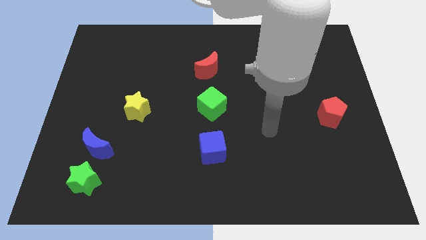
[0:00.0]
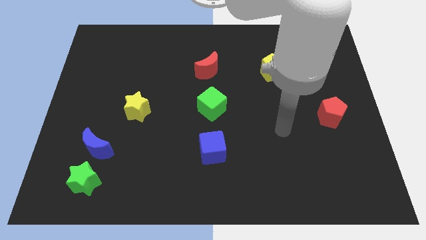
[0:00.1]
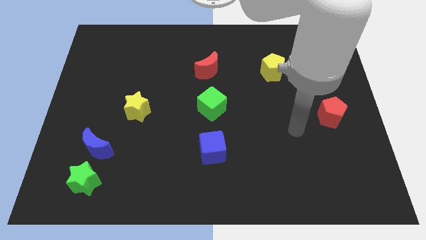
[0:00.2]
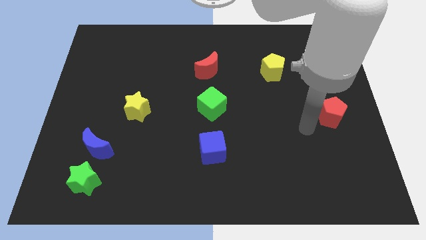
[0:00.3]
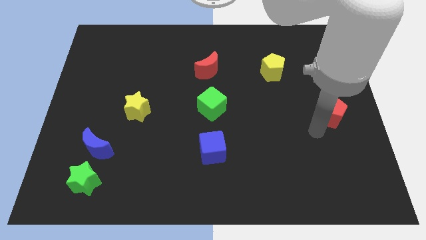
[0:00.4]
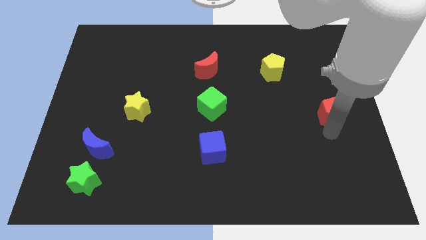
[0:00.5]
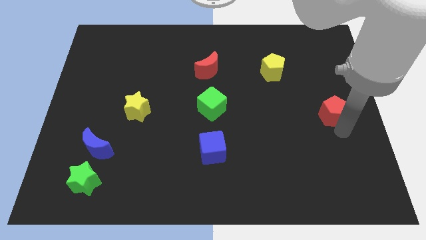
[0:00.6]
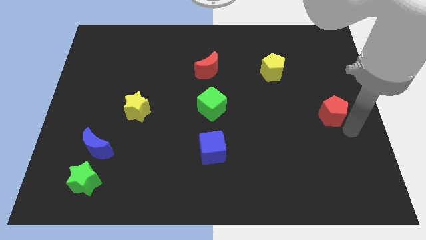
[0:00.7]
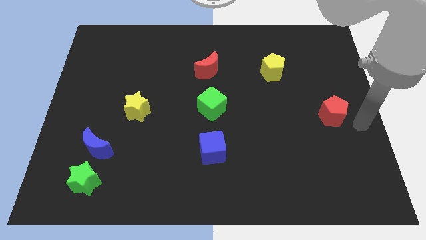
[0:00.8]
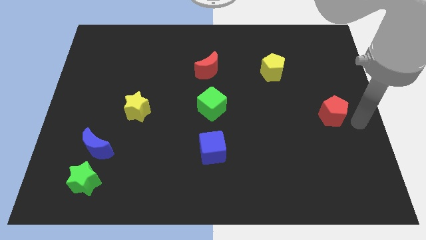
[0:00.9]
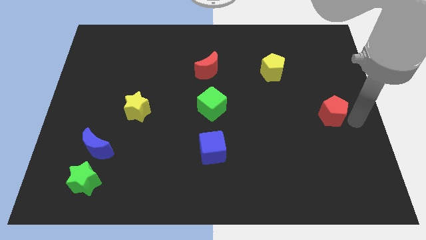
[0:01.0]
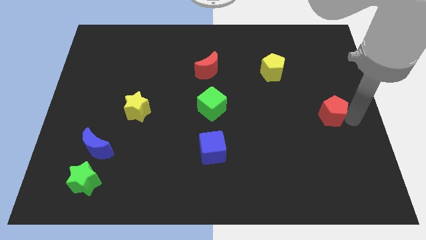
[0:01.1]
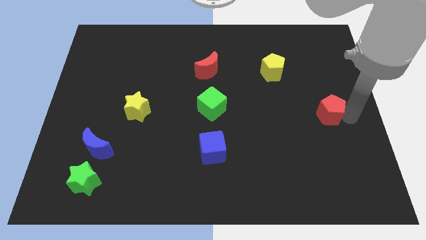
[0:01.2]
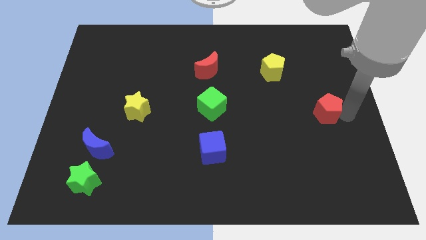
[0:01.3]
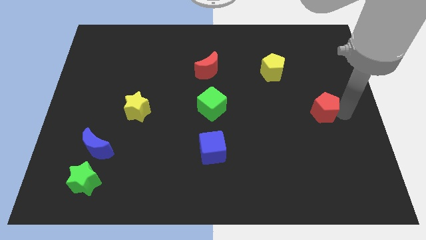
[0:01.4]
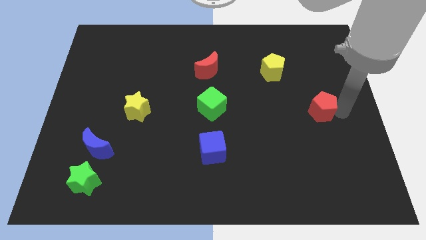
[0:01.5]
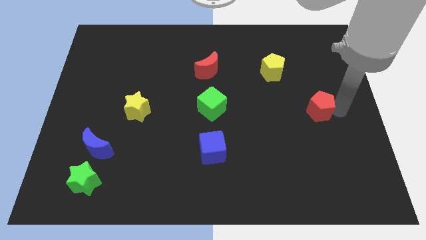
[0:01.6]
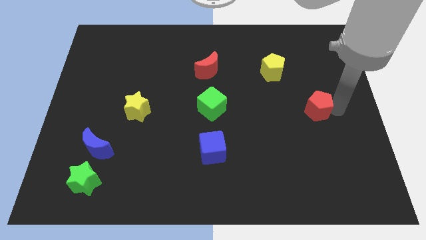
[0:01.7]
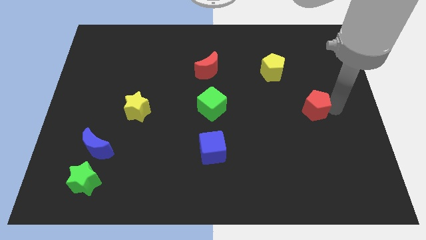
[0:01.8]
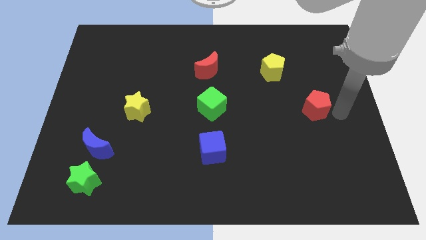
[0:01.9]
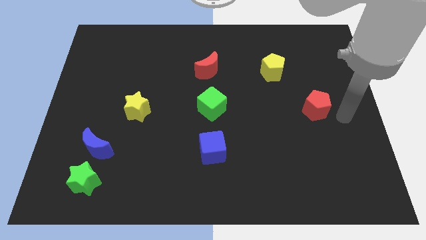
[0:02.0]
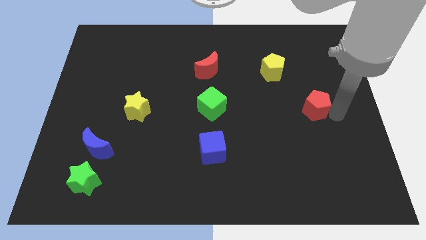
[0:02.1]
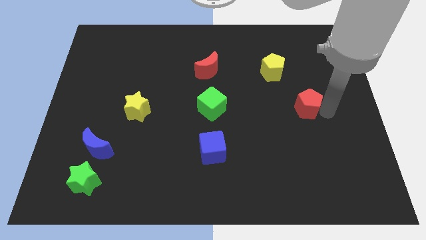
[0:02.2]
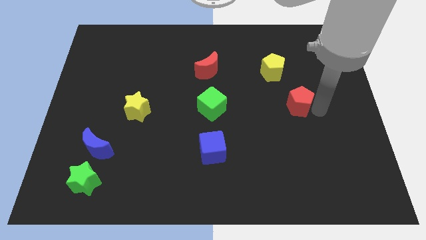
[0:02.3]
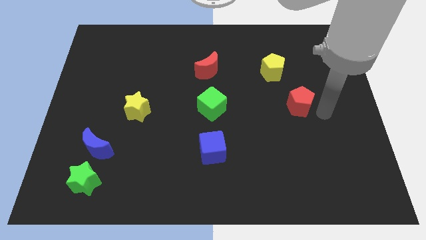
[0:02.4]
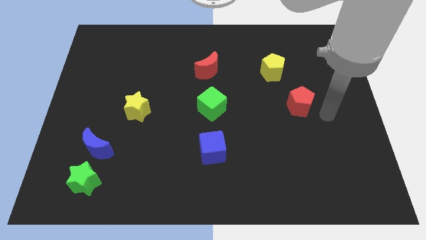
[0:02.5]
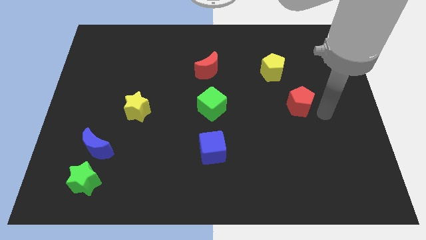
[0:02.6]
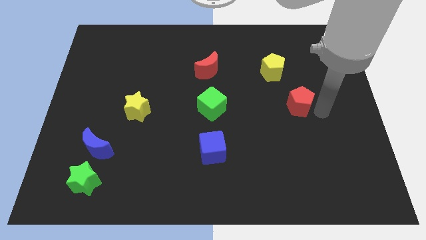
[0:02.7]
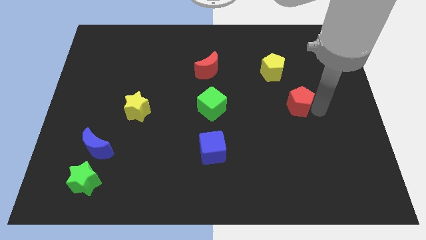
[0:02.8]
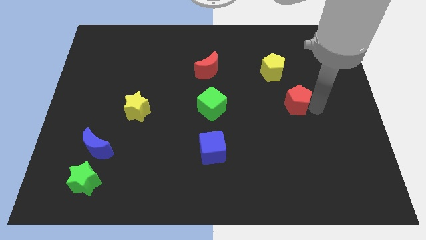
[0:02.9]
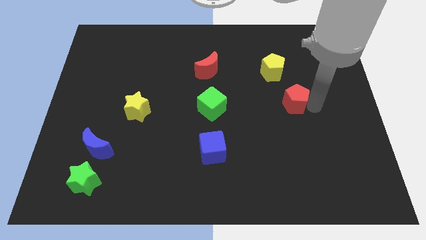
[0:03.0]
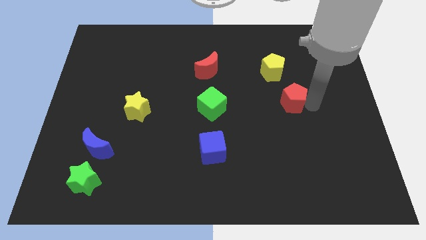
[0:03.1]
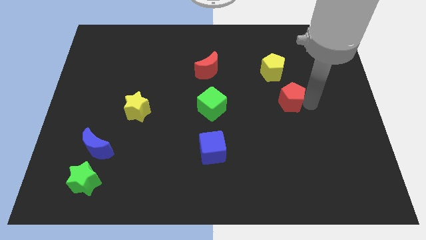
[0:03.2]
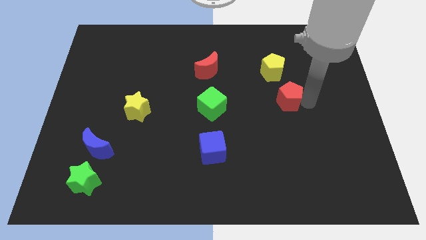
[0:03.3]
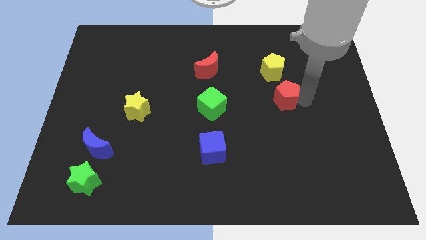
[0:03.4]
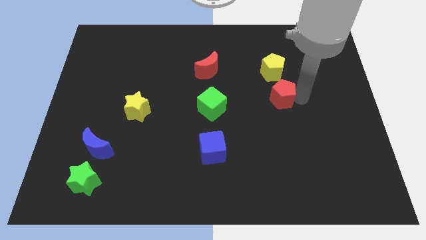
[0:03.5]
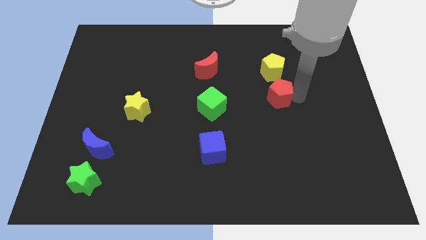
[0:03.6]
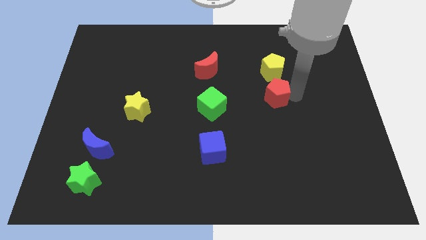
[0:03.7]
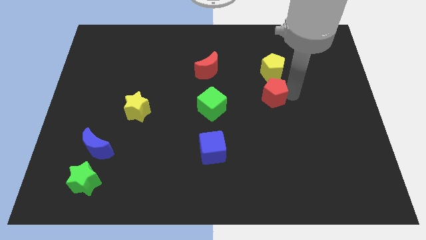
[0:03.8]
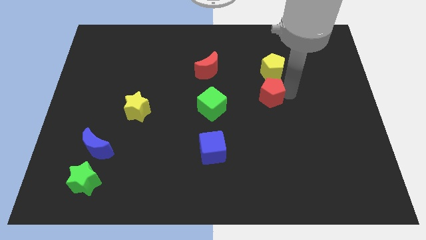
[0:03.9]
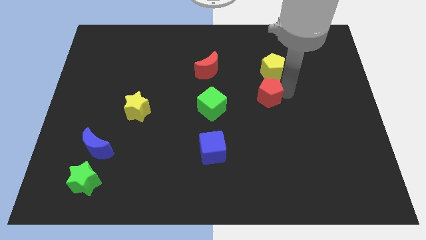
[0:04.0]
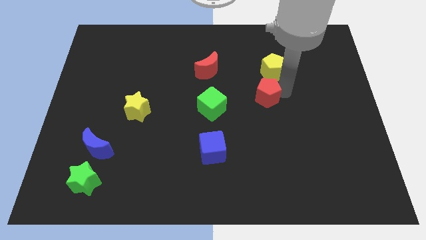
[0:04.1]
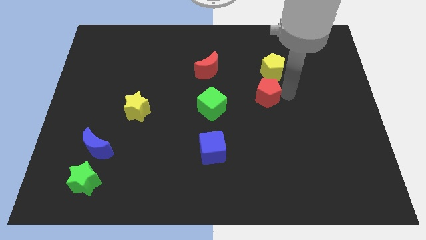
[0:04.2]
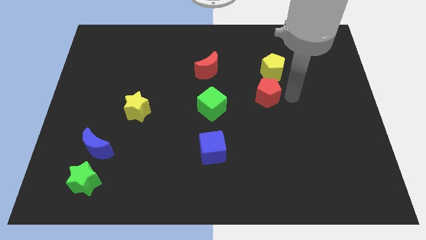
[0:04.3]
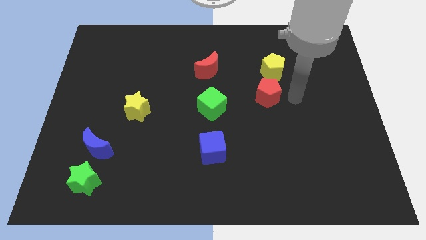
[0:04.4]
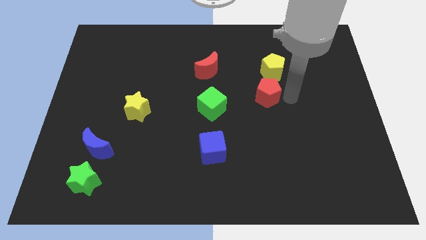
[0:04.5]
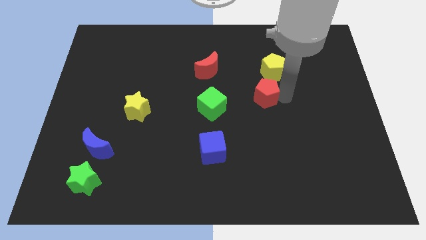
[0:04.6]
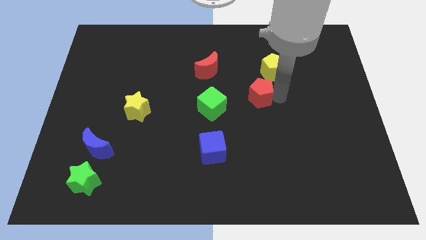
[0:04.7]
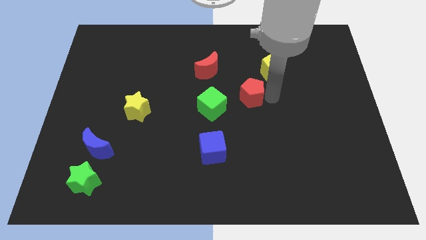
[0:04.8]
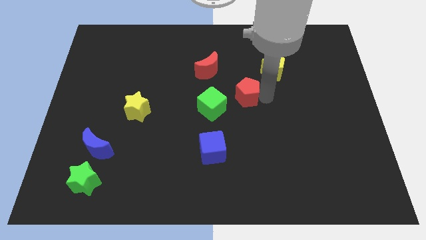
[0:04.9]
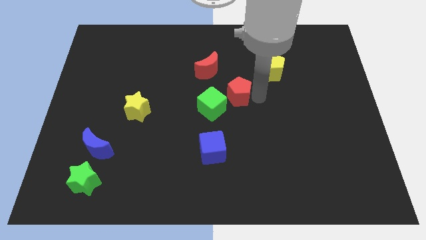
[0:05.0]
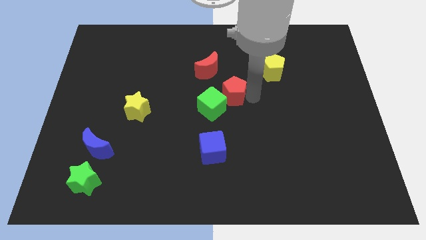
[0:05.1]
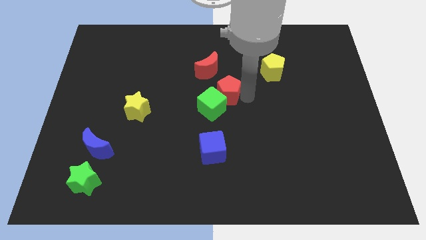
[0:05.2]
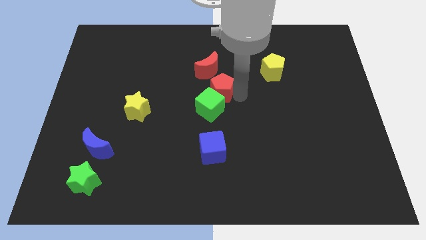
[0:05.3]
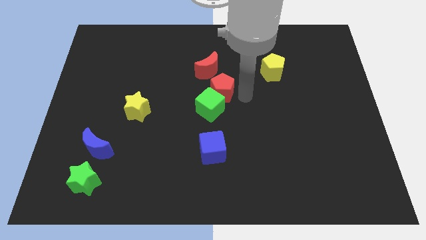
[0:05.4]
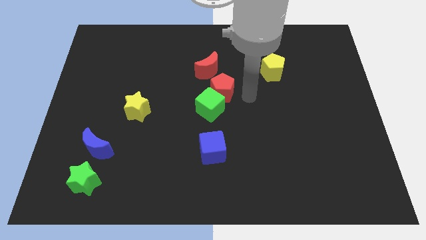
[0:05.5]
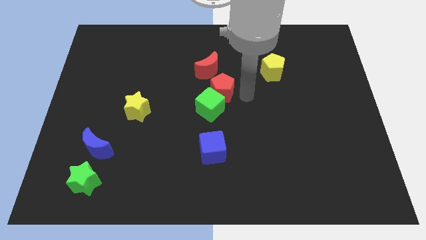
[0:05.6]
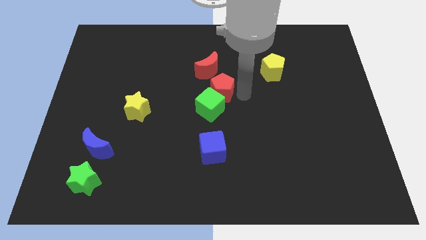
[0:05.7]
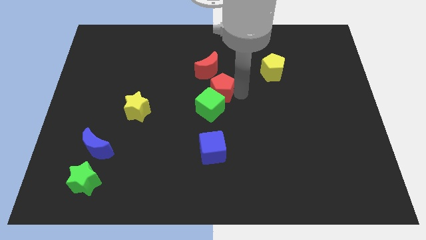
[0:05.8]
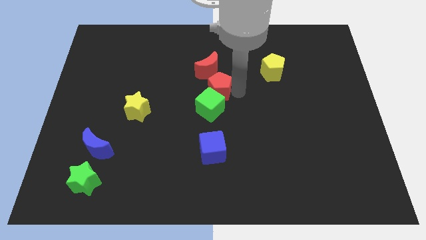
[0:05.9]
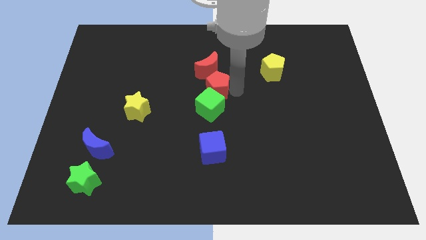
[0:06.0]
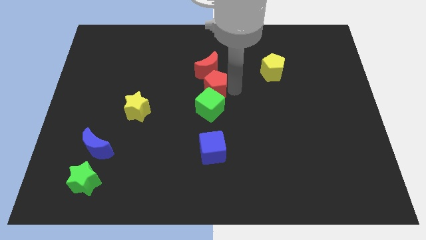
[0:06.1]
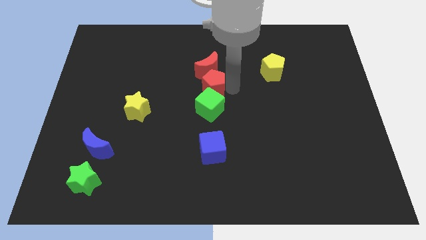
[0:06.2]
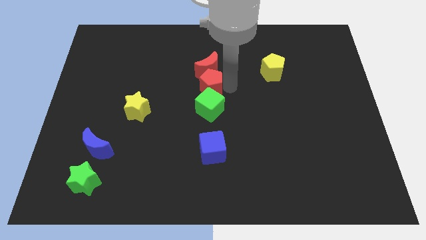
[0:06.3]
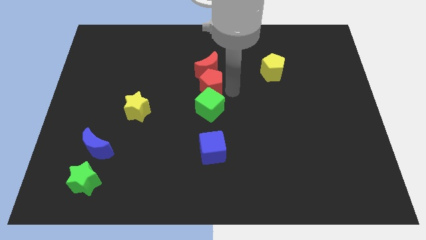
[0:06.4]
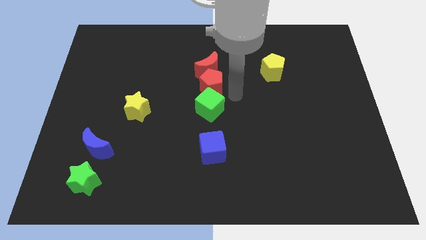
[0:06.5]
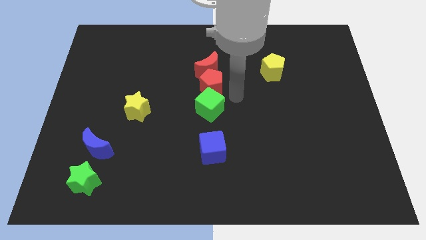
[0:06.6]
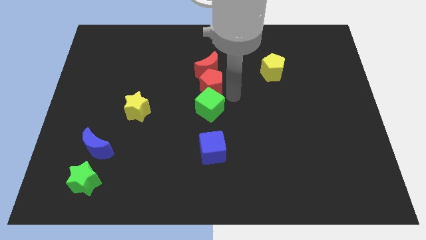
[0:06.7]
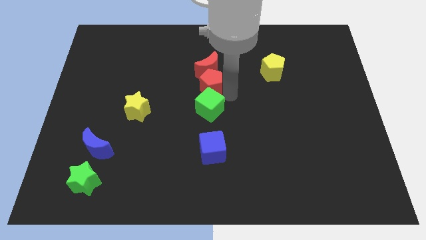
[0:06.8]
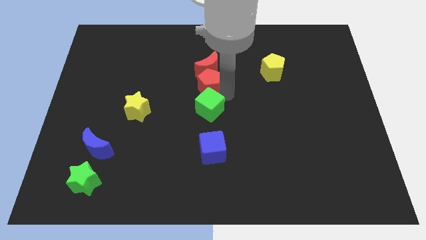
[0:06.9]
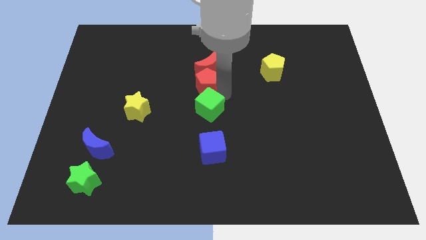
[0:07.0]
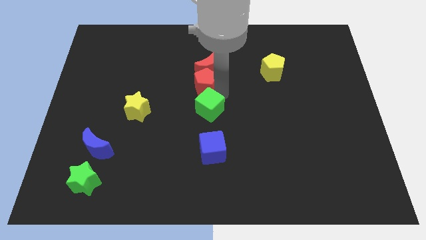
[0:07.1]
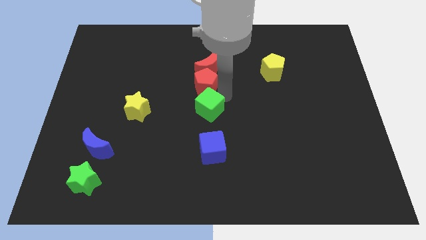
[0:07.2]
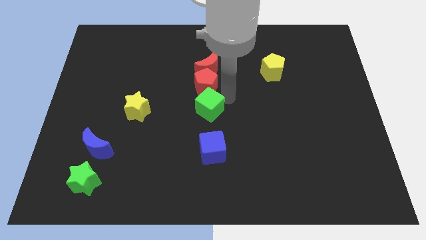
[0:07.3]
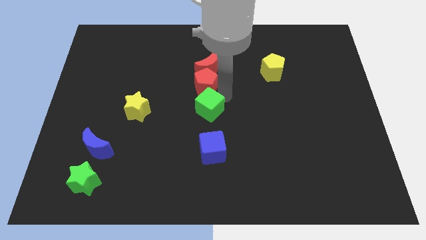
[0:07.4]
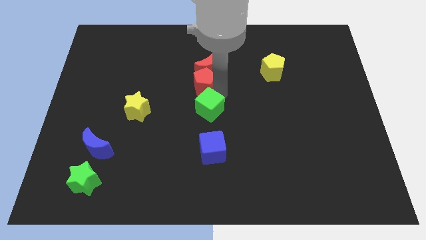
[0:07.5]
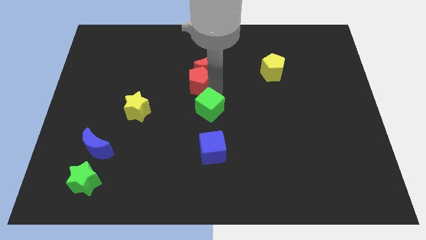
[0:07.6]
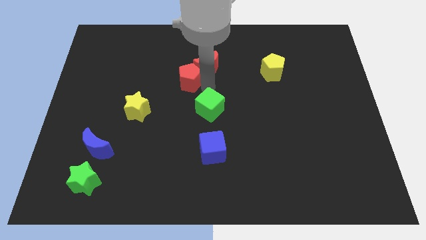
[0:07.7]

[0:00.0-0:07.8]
put the red pentagon to the left side of the red moon

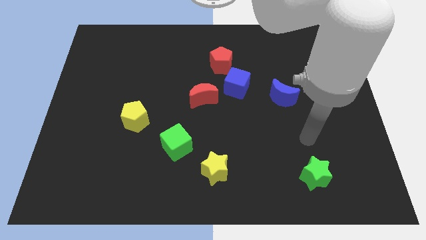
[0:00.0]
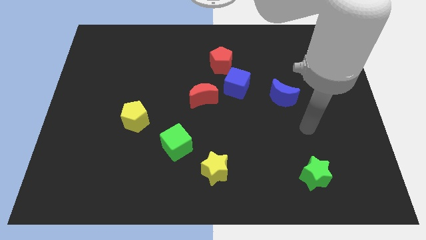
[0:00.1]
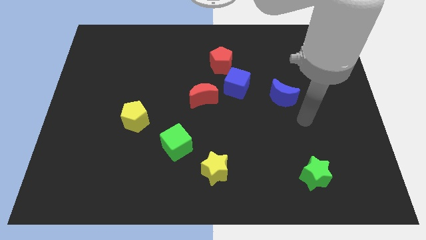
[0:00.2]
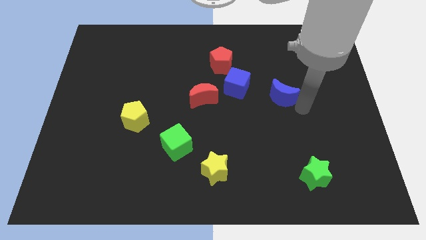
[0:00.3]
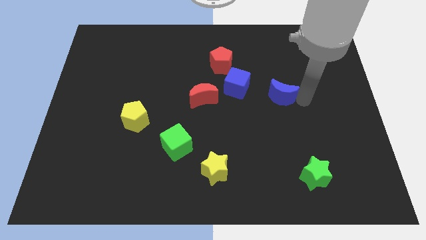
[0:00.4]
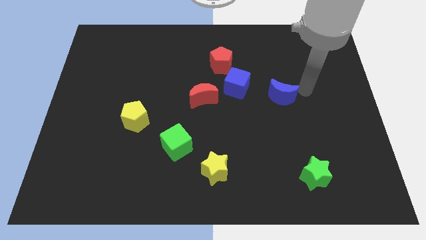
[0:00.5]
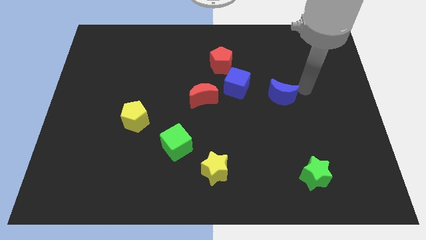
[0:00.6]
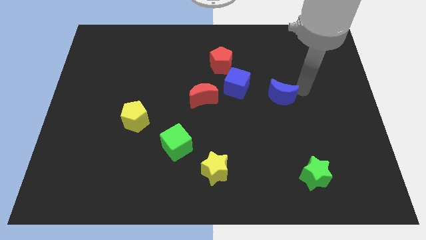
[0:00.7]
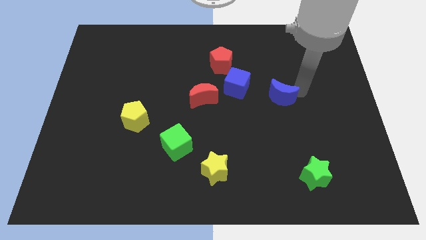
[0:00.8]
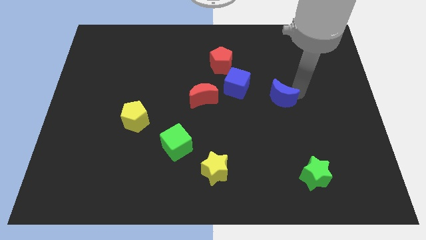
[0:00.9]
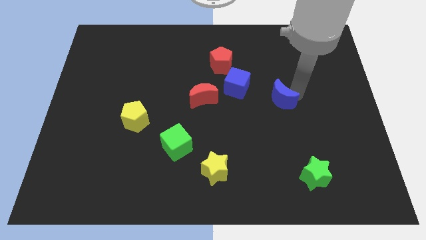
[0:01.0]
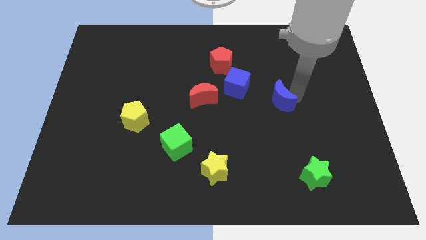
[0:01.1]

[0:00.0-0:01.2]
slide the blue moon to the bottom right side of the blue cube
